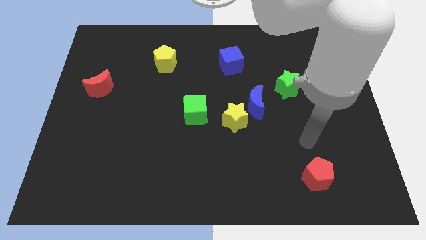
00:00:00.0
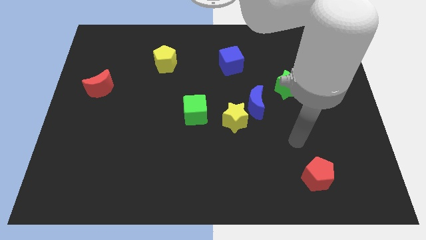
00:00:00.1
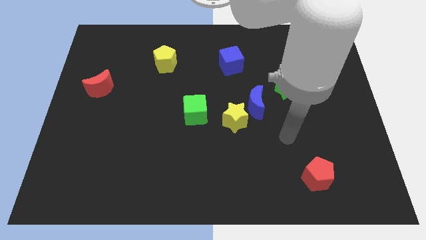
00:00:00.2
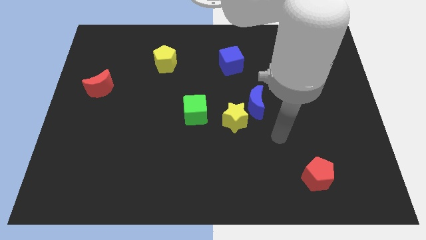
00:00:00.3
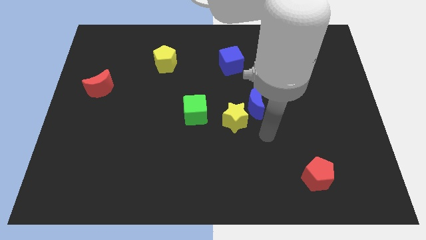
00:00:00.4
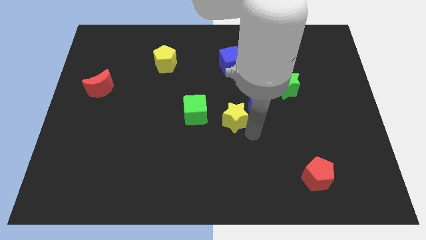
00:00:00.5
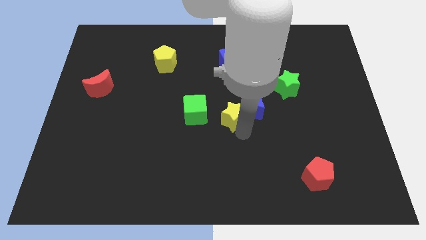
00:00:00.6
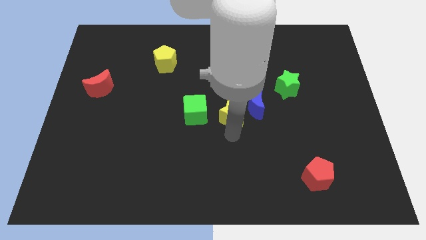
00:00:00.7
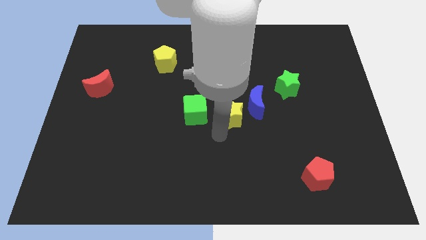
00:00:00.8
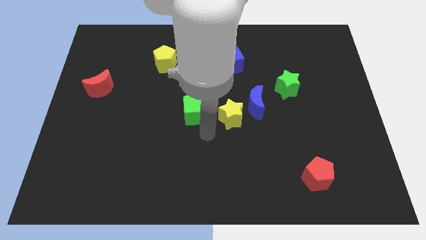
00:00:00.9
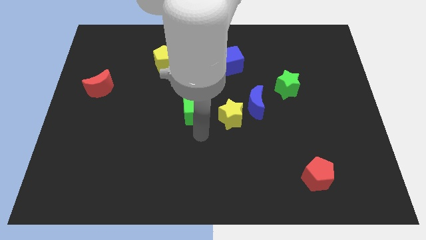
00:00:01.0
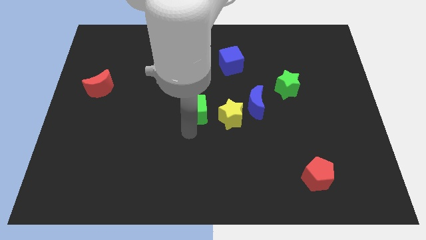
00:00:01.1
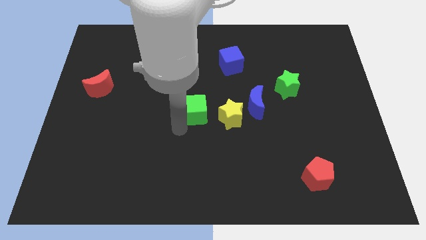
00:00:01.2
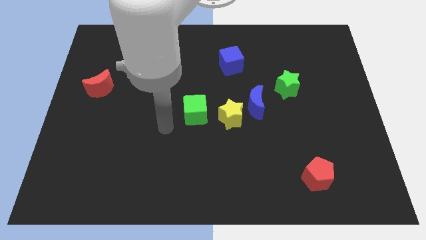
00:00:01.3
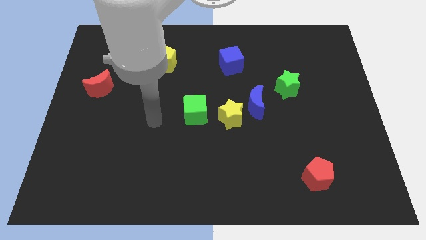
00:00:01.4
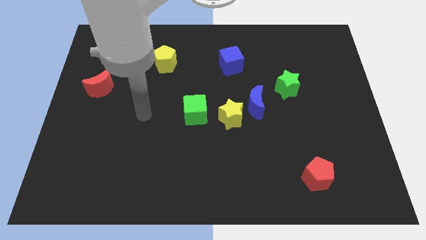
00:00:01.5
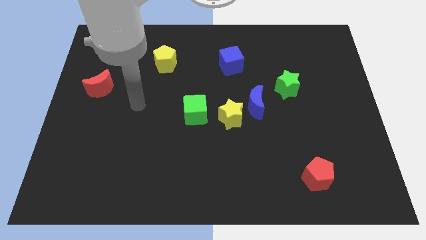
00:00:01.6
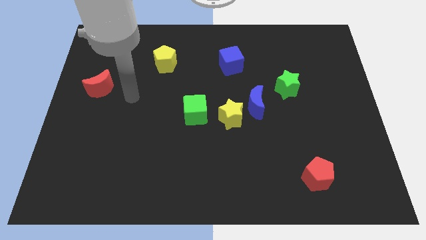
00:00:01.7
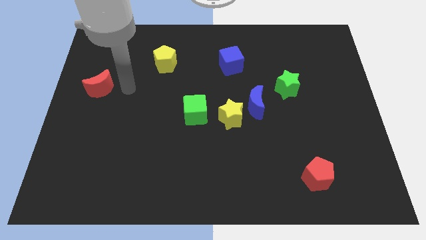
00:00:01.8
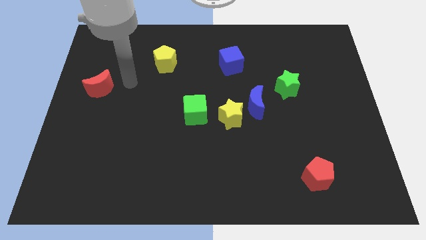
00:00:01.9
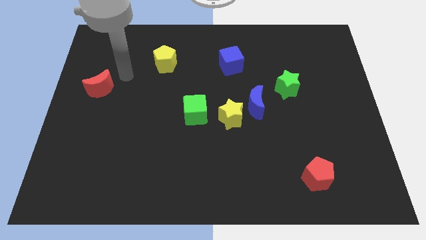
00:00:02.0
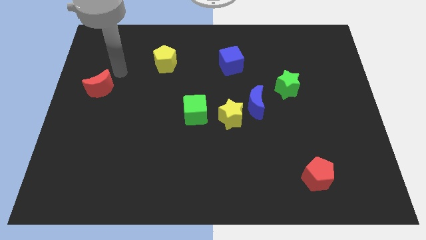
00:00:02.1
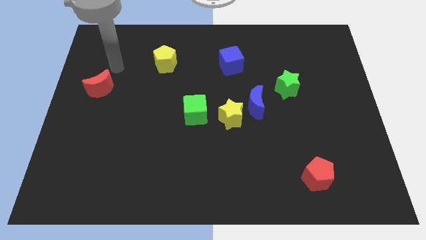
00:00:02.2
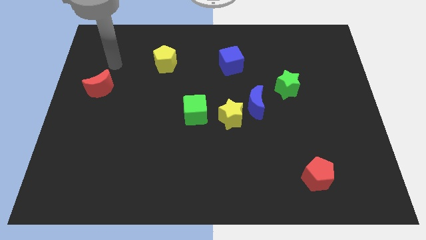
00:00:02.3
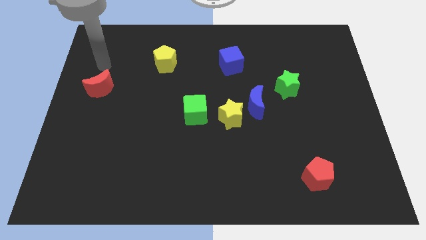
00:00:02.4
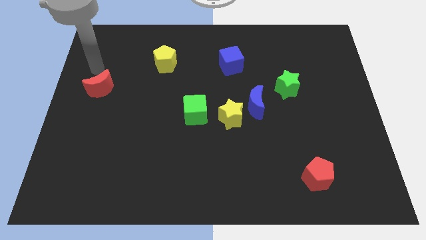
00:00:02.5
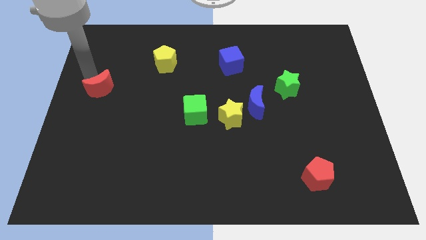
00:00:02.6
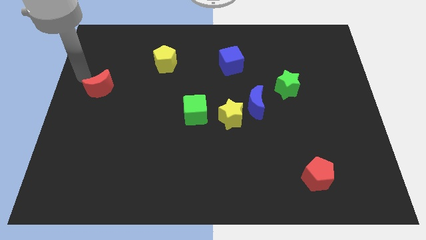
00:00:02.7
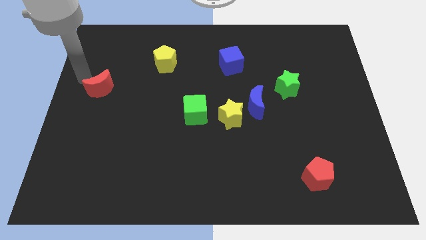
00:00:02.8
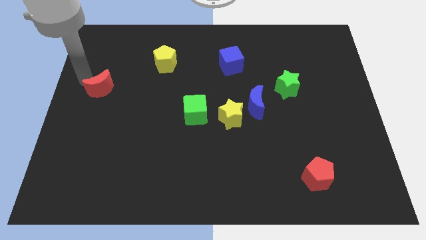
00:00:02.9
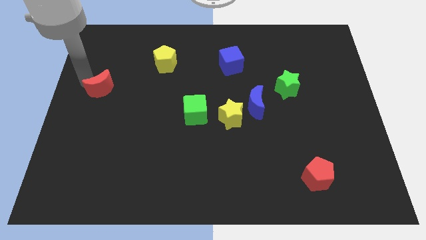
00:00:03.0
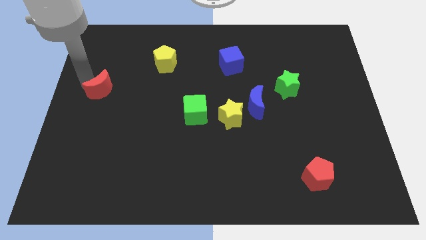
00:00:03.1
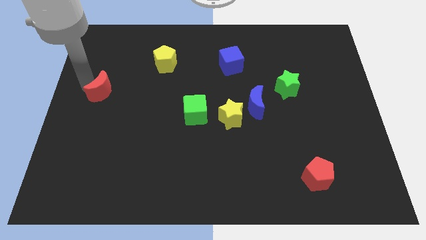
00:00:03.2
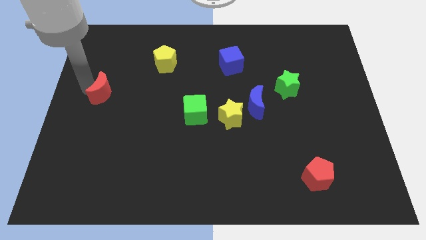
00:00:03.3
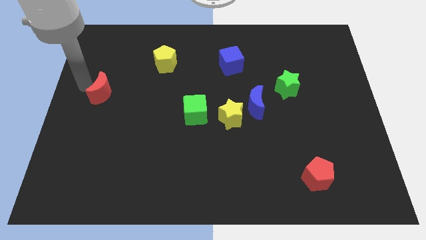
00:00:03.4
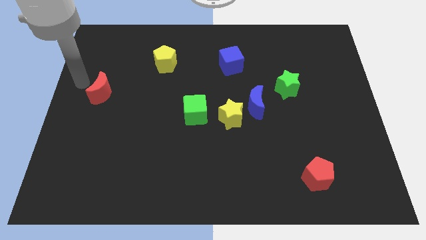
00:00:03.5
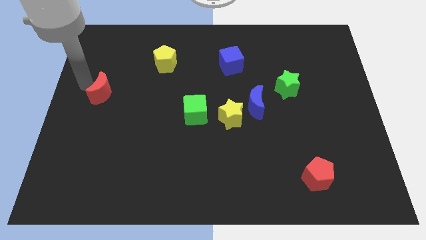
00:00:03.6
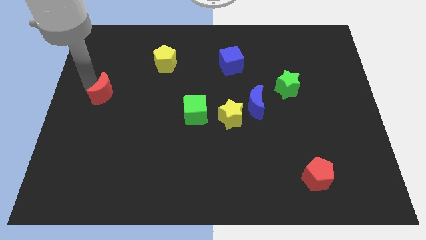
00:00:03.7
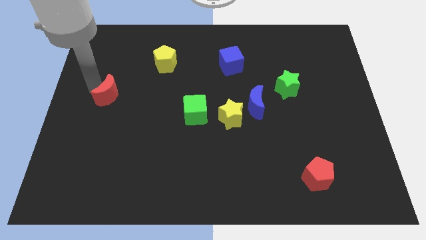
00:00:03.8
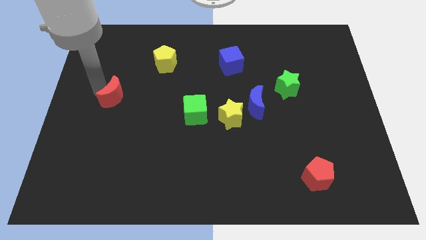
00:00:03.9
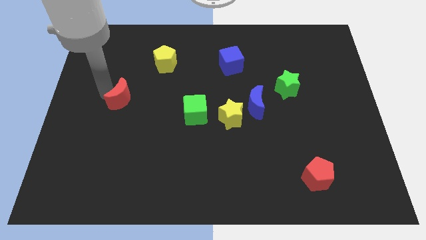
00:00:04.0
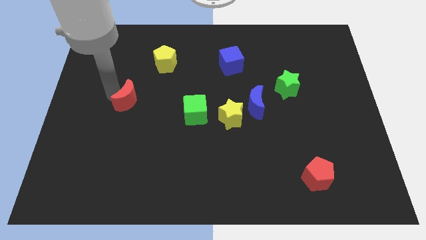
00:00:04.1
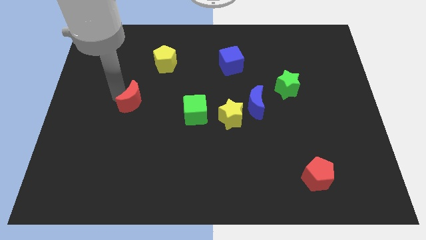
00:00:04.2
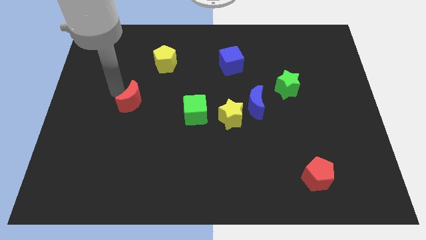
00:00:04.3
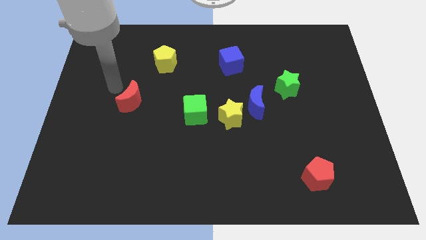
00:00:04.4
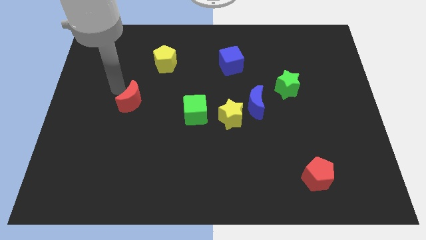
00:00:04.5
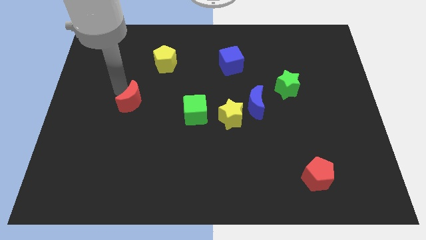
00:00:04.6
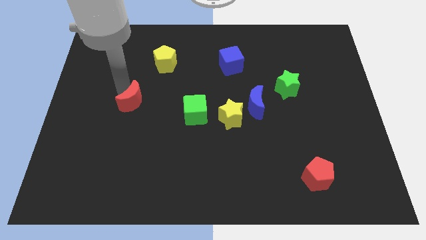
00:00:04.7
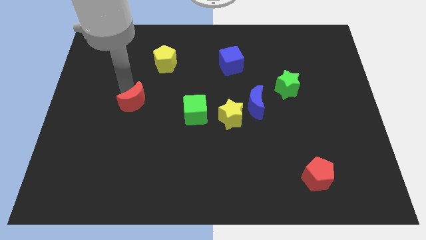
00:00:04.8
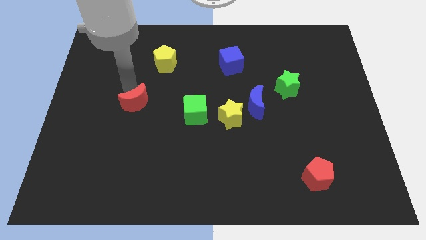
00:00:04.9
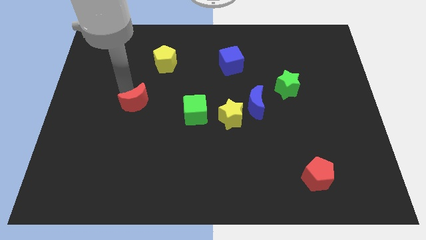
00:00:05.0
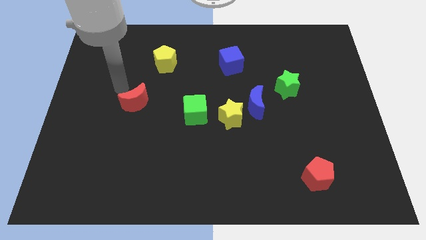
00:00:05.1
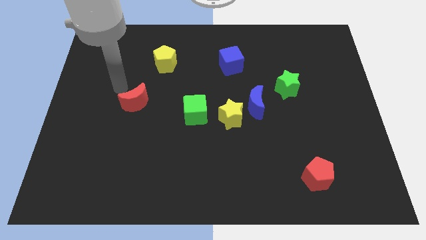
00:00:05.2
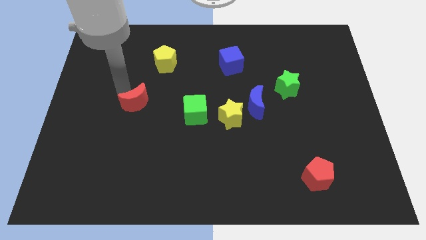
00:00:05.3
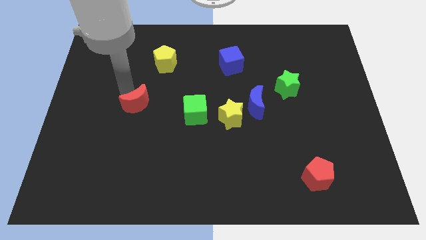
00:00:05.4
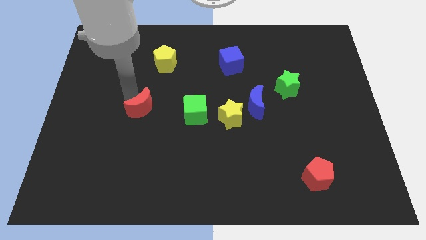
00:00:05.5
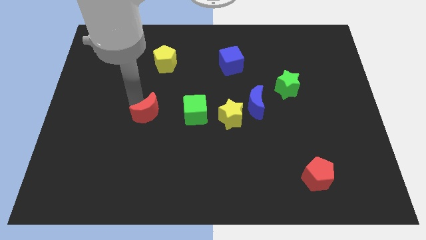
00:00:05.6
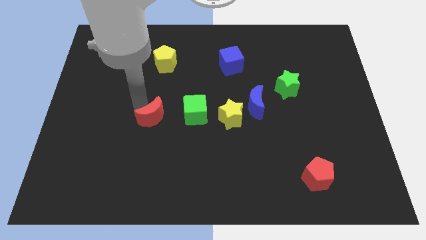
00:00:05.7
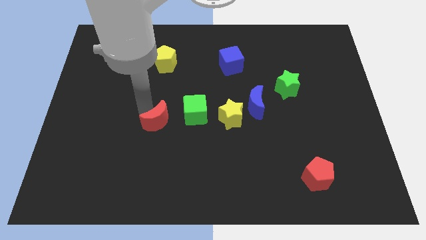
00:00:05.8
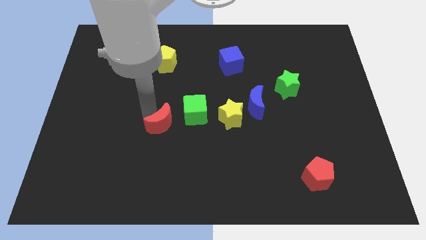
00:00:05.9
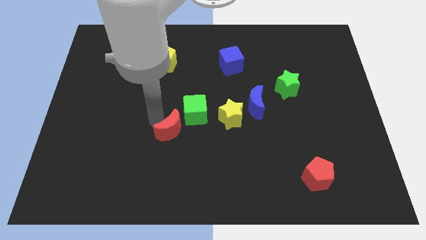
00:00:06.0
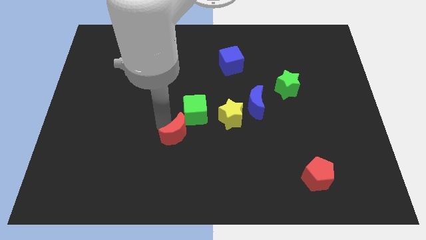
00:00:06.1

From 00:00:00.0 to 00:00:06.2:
slide the red moon to the bottom of the green cube

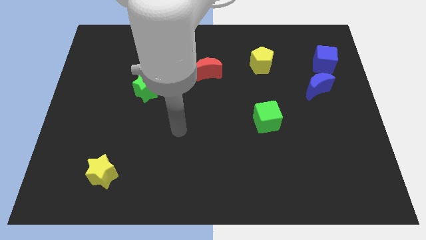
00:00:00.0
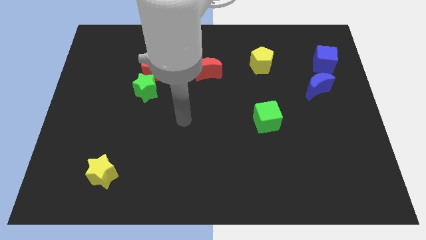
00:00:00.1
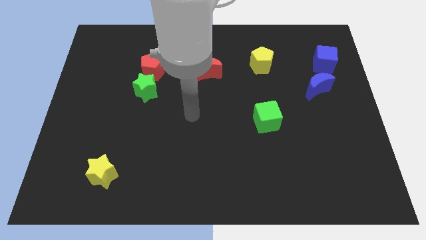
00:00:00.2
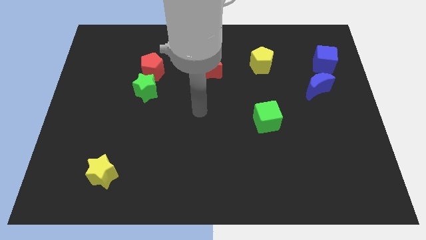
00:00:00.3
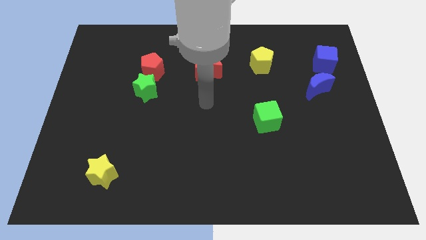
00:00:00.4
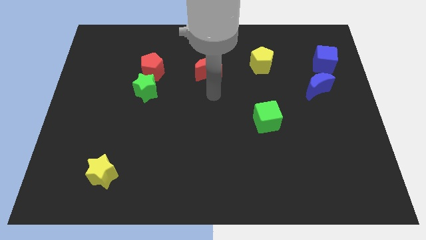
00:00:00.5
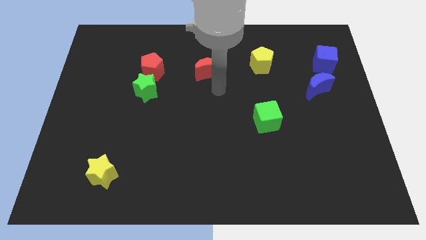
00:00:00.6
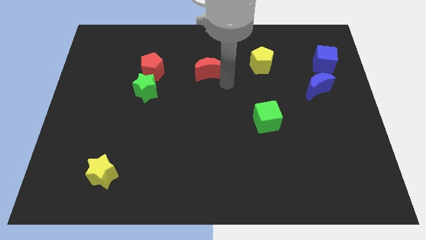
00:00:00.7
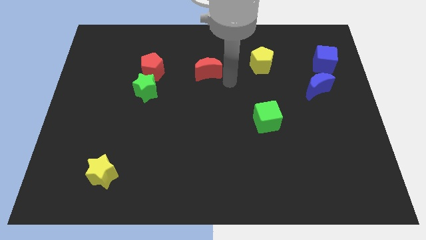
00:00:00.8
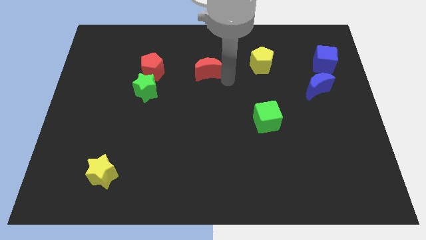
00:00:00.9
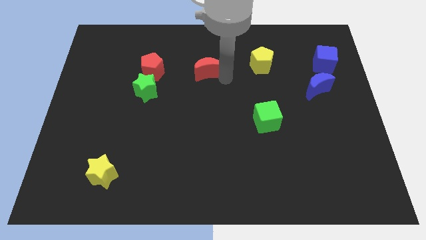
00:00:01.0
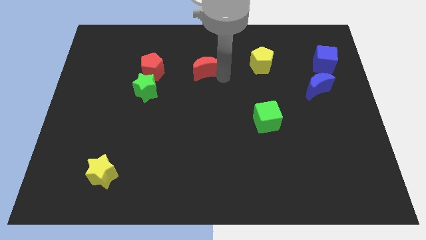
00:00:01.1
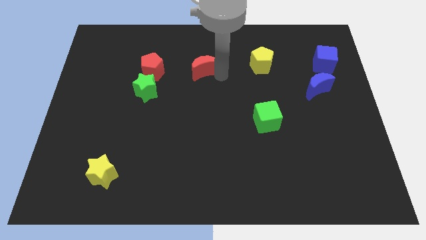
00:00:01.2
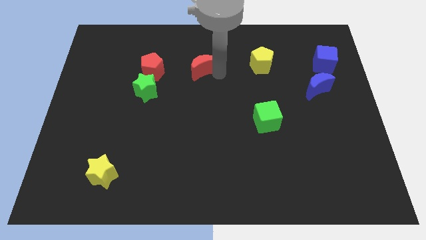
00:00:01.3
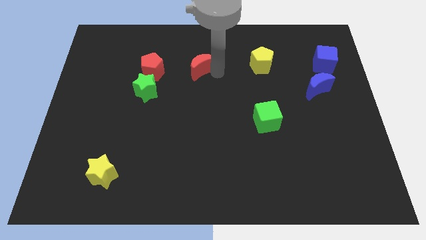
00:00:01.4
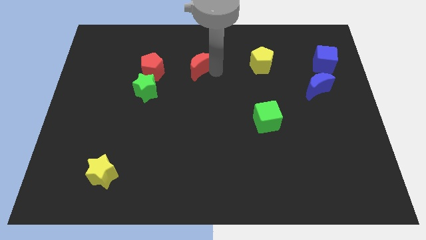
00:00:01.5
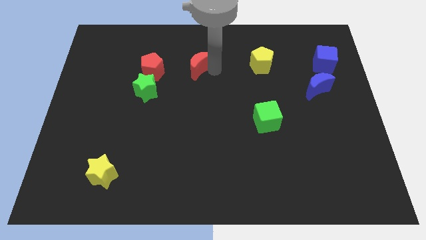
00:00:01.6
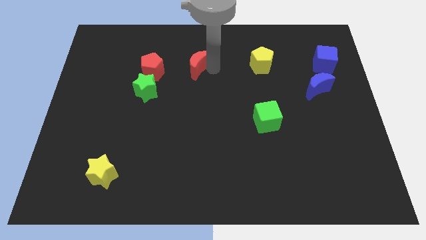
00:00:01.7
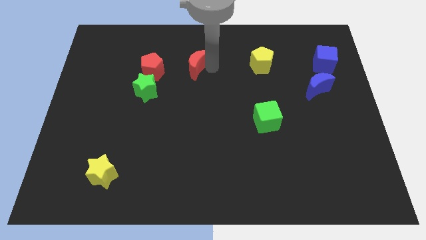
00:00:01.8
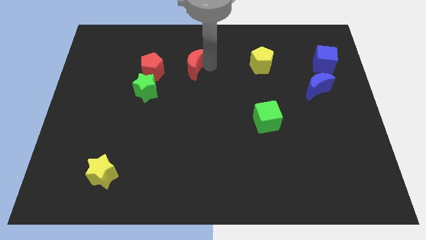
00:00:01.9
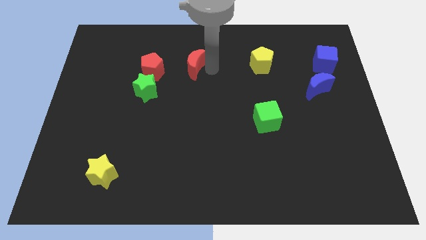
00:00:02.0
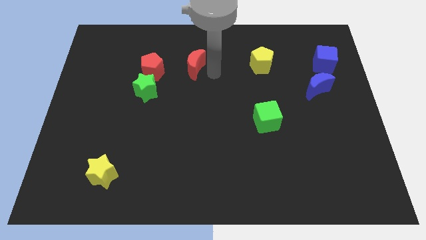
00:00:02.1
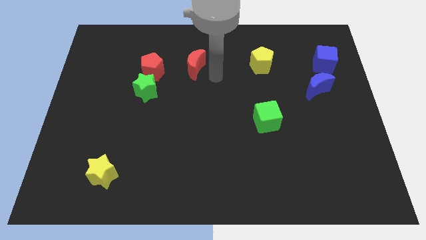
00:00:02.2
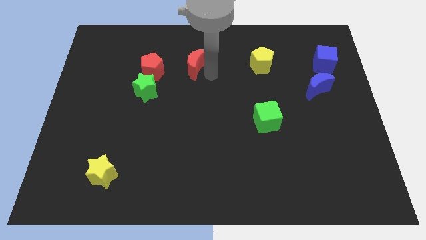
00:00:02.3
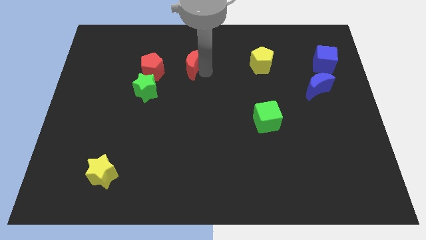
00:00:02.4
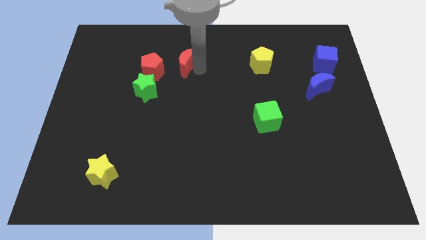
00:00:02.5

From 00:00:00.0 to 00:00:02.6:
slide the red moon to the top right side of the red pentagon
